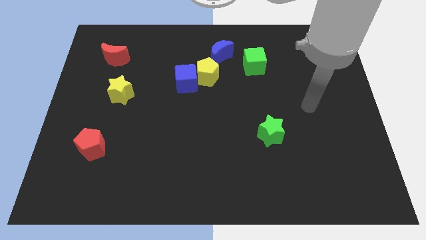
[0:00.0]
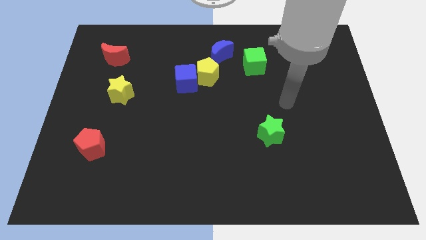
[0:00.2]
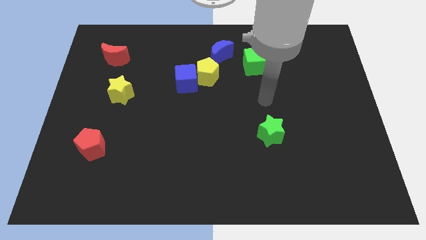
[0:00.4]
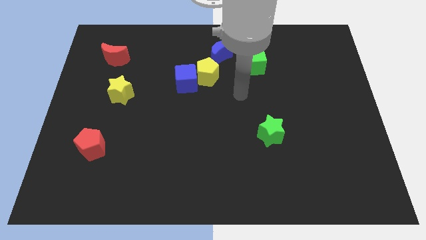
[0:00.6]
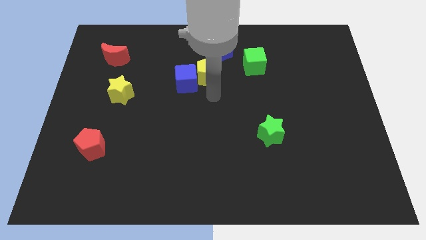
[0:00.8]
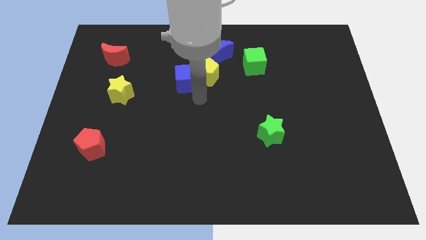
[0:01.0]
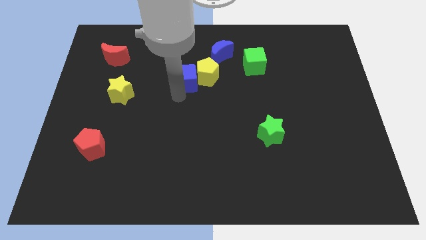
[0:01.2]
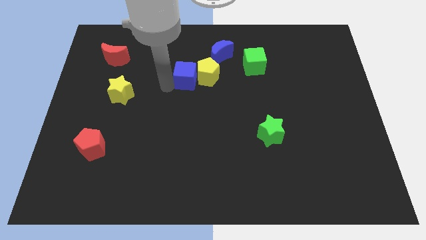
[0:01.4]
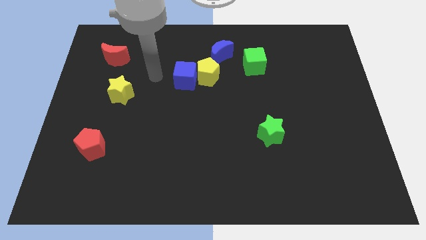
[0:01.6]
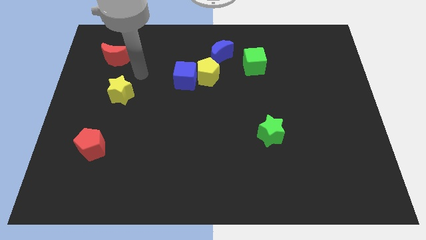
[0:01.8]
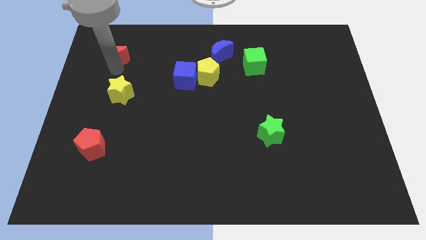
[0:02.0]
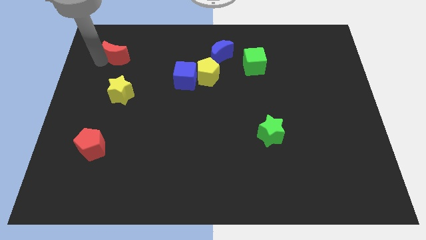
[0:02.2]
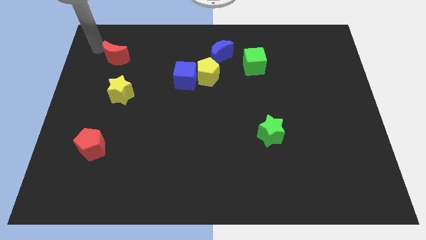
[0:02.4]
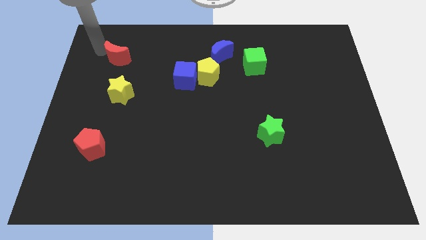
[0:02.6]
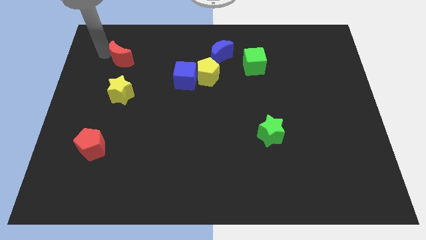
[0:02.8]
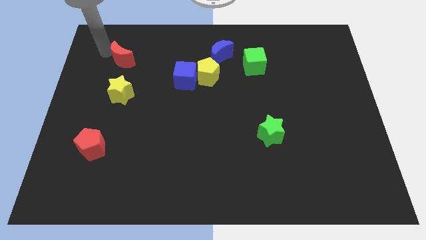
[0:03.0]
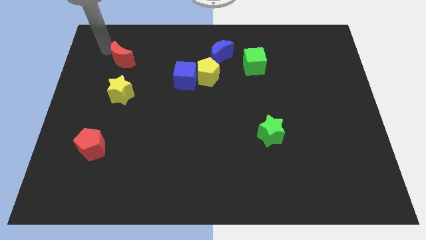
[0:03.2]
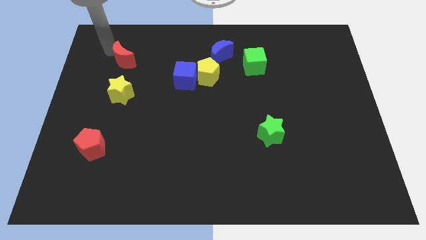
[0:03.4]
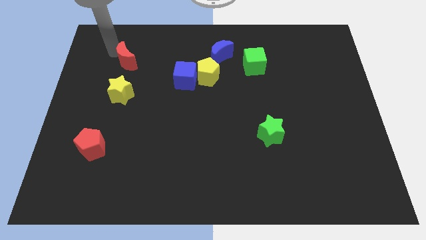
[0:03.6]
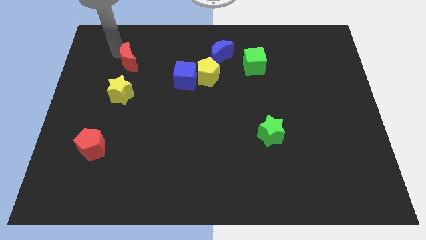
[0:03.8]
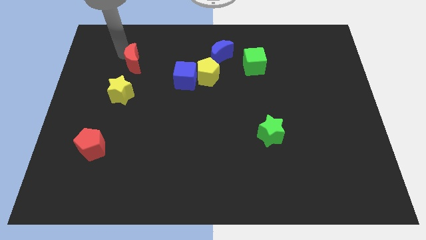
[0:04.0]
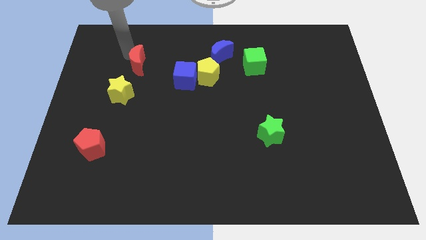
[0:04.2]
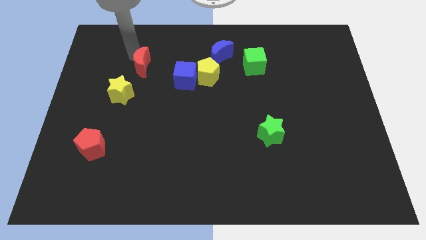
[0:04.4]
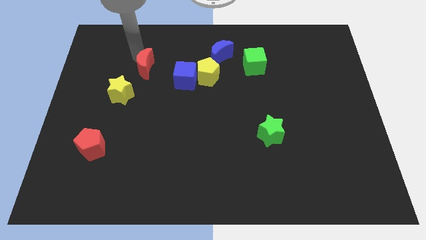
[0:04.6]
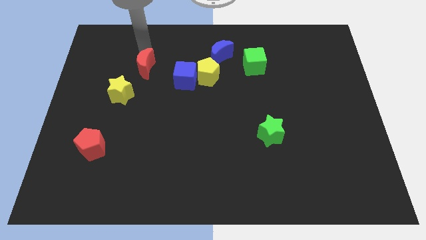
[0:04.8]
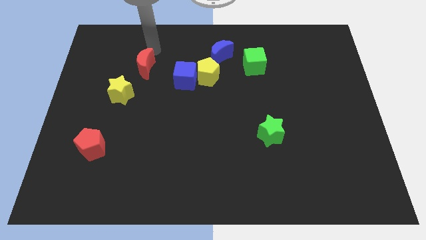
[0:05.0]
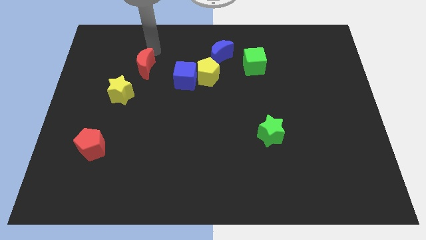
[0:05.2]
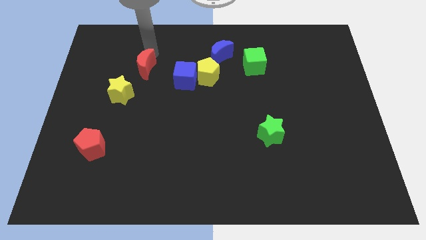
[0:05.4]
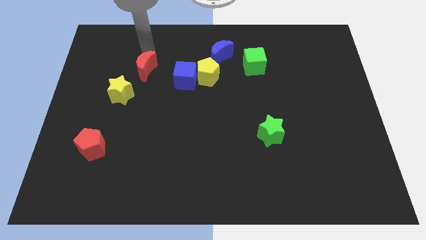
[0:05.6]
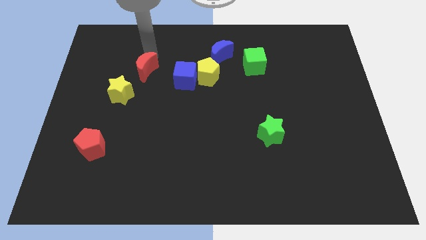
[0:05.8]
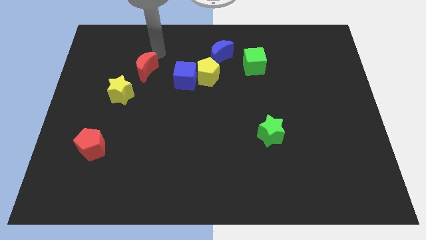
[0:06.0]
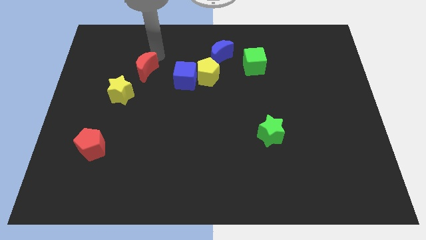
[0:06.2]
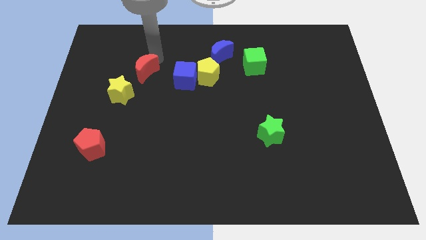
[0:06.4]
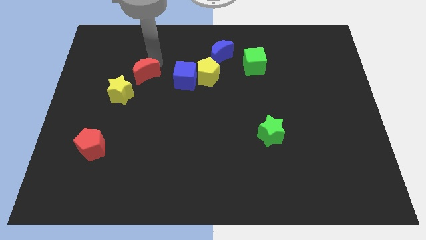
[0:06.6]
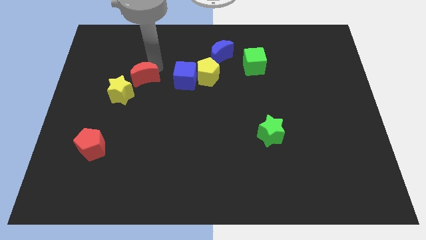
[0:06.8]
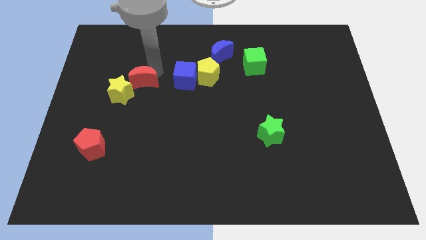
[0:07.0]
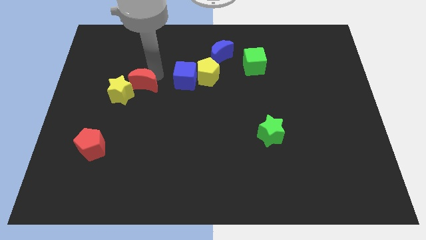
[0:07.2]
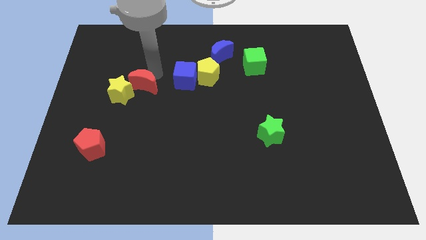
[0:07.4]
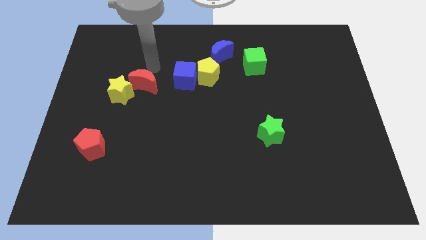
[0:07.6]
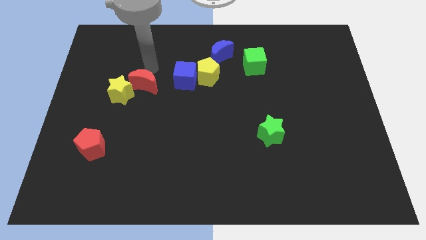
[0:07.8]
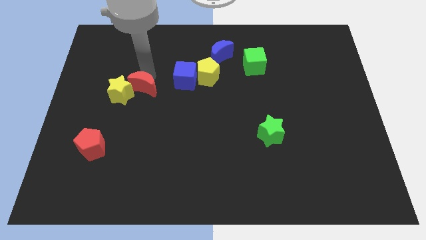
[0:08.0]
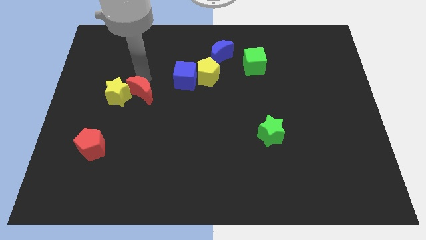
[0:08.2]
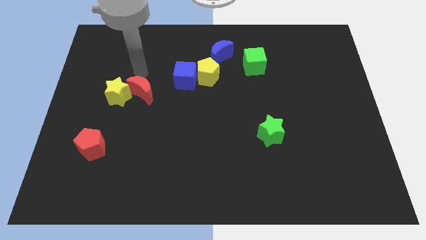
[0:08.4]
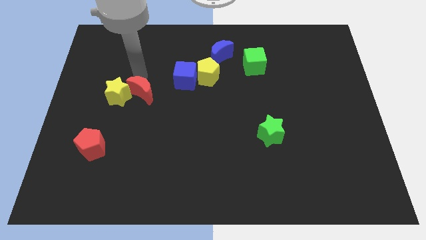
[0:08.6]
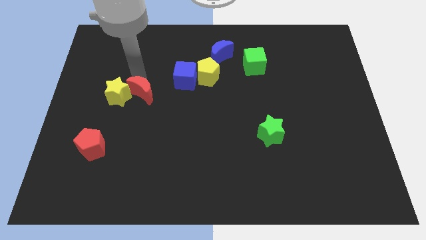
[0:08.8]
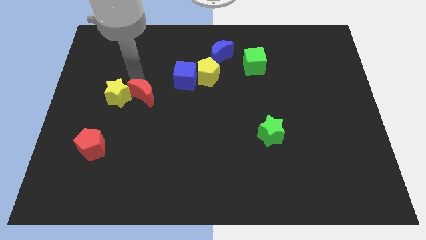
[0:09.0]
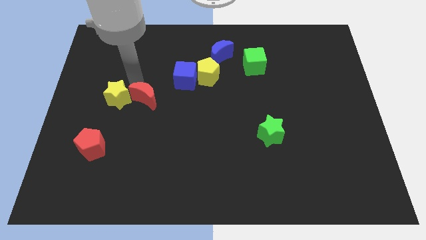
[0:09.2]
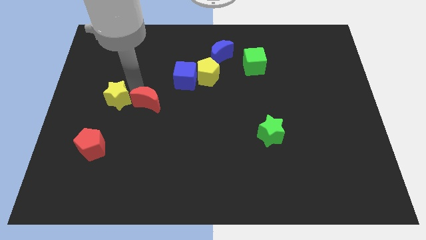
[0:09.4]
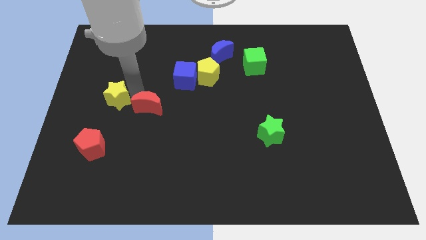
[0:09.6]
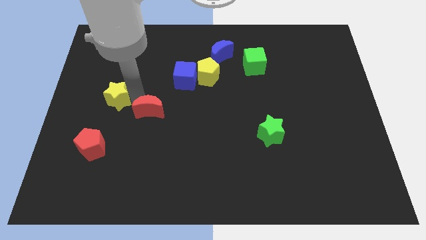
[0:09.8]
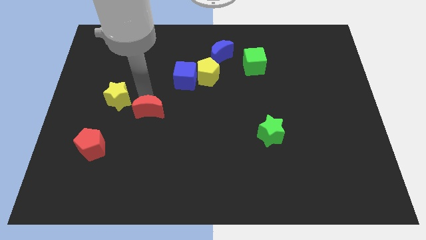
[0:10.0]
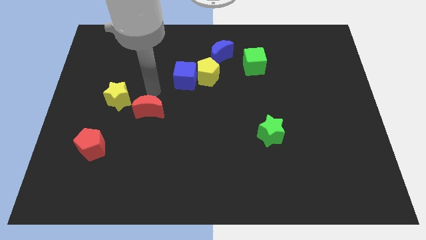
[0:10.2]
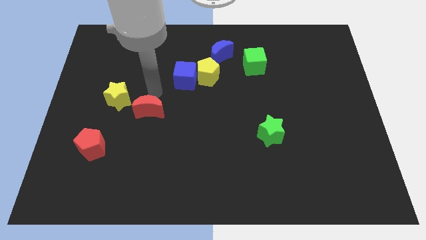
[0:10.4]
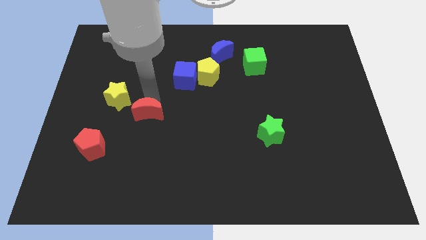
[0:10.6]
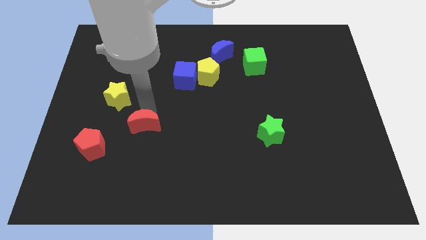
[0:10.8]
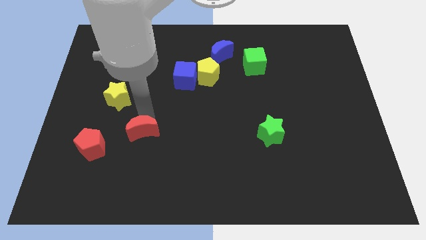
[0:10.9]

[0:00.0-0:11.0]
push the red moon to the right side of the red pentagon

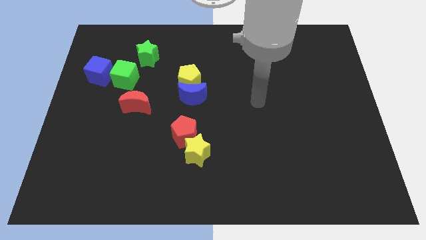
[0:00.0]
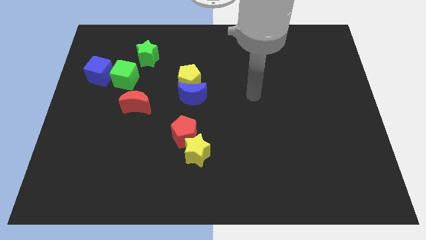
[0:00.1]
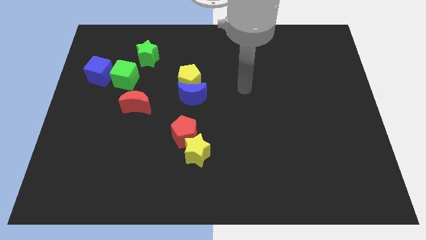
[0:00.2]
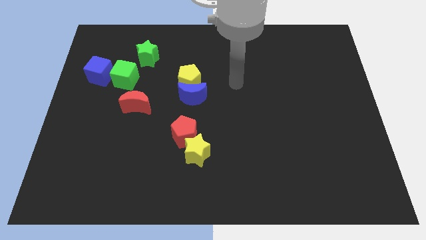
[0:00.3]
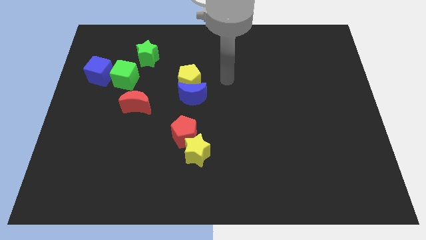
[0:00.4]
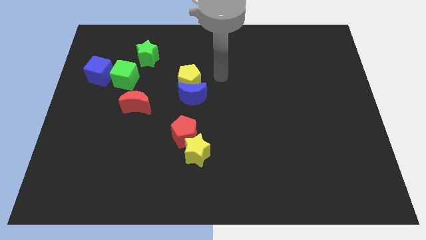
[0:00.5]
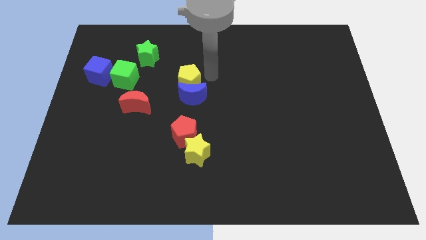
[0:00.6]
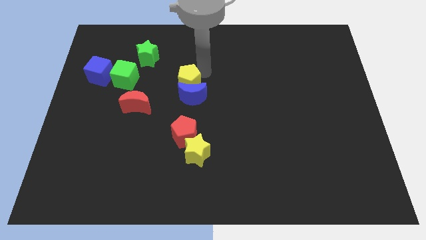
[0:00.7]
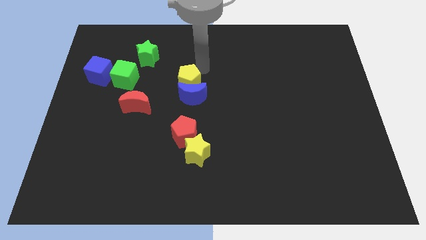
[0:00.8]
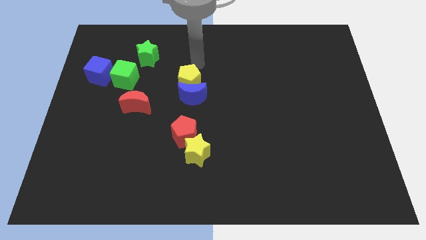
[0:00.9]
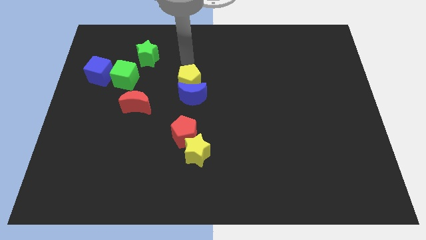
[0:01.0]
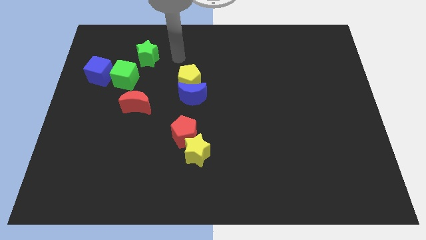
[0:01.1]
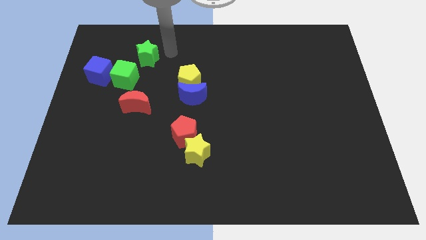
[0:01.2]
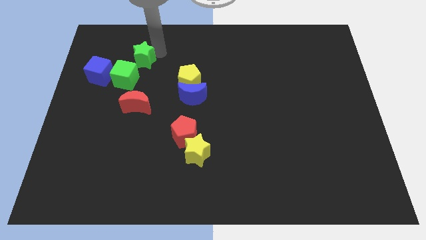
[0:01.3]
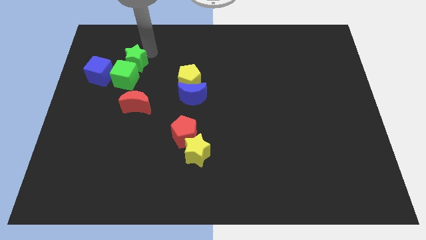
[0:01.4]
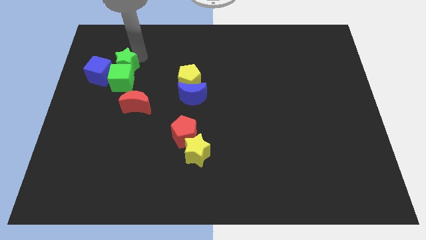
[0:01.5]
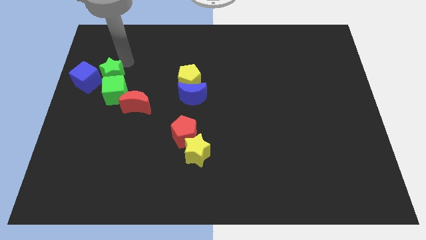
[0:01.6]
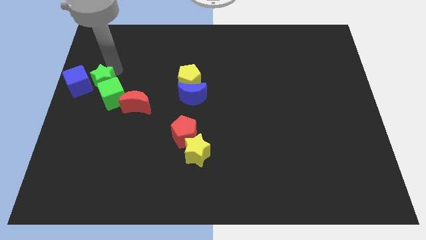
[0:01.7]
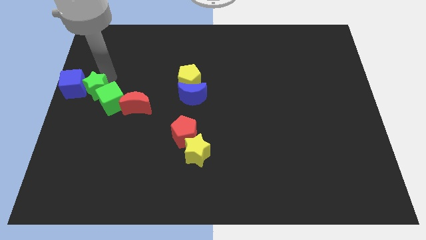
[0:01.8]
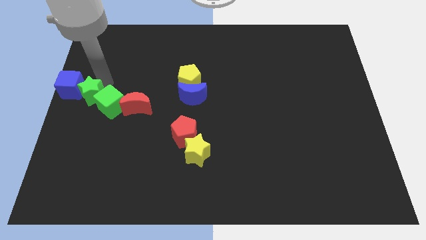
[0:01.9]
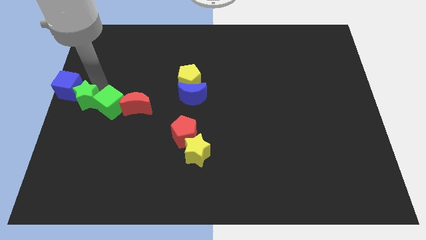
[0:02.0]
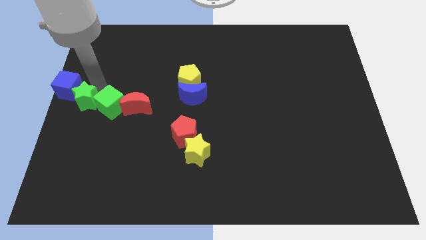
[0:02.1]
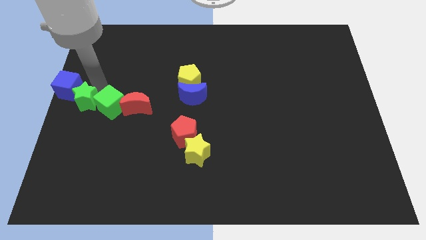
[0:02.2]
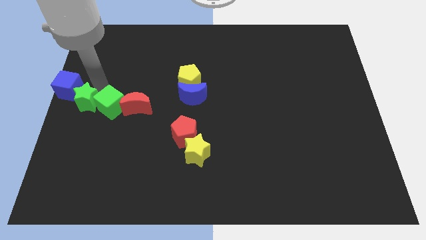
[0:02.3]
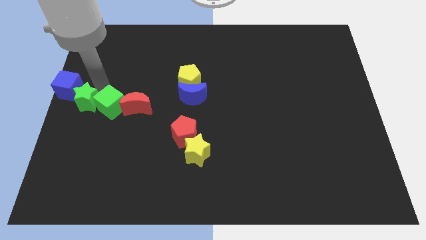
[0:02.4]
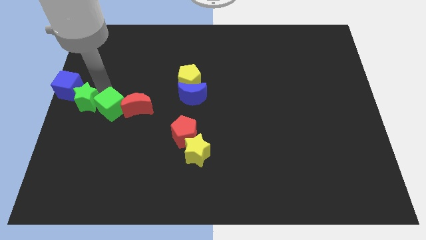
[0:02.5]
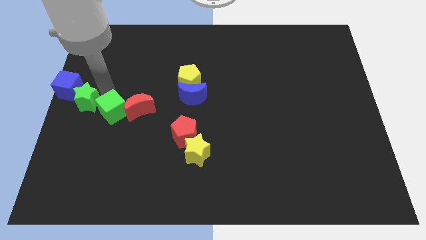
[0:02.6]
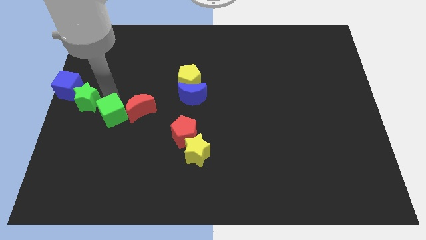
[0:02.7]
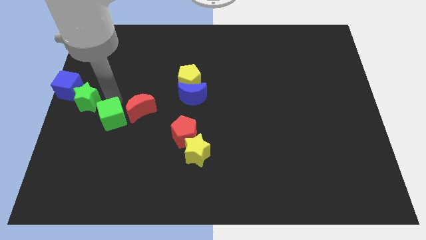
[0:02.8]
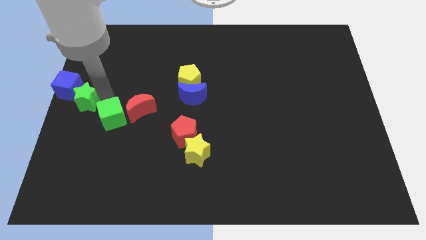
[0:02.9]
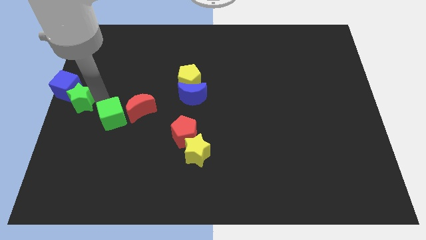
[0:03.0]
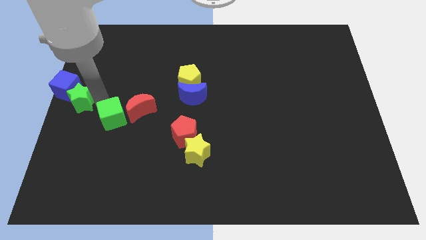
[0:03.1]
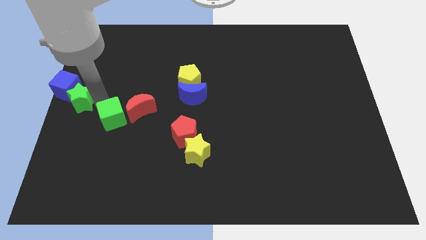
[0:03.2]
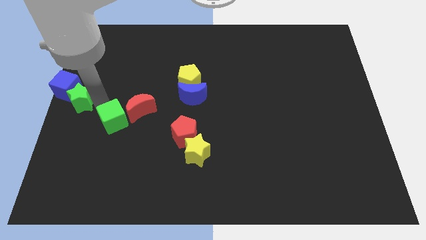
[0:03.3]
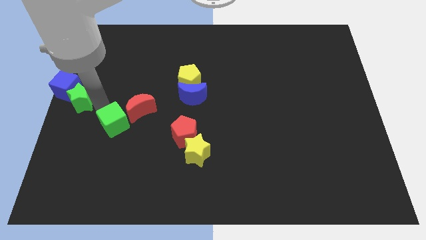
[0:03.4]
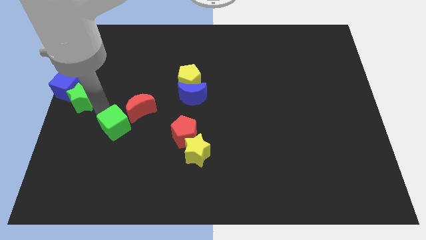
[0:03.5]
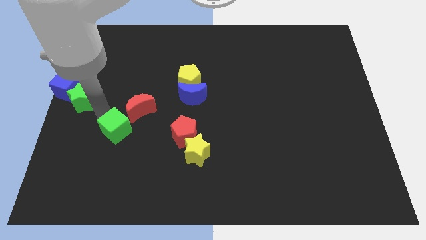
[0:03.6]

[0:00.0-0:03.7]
move the green cube to the bottom side of the red moon
